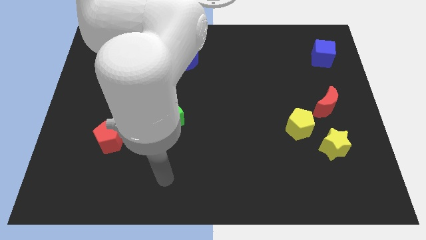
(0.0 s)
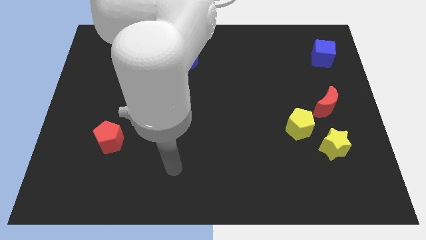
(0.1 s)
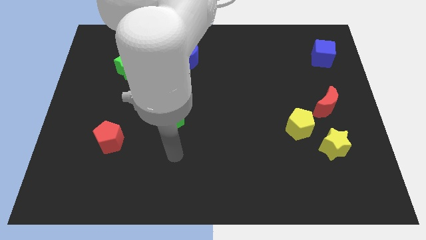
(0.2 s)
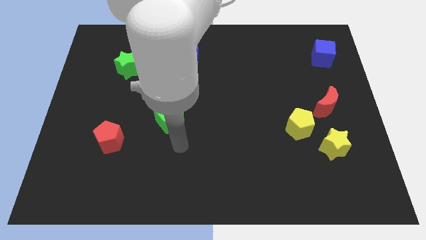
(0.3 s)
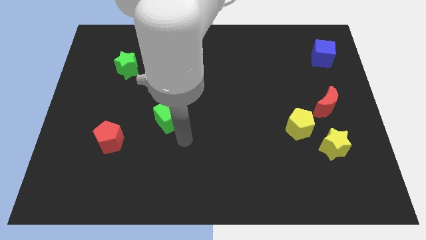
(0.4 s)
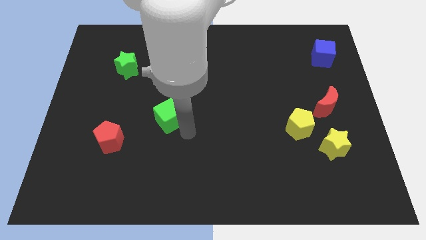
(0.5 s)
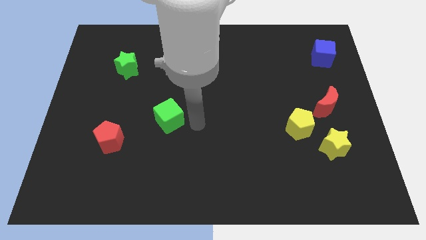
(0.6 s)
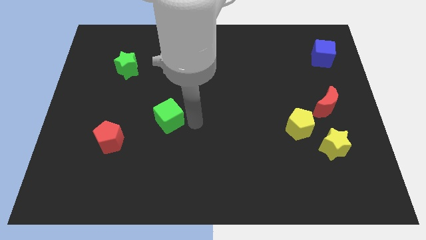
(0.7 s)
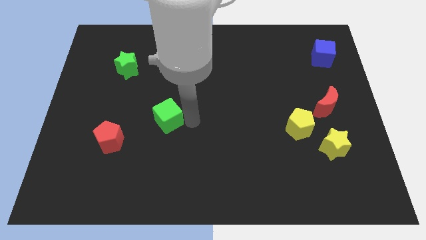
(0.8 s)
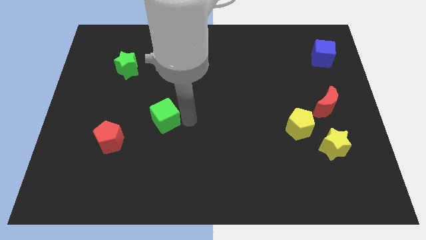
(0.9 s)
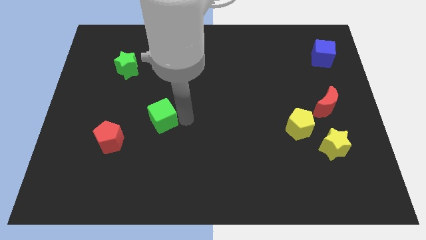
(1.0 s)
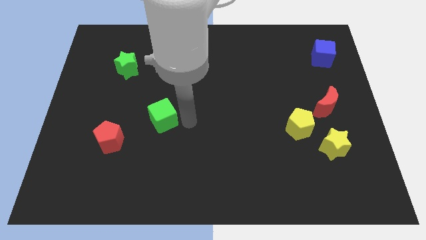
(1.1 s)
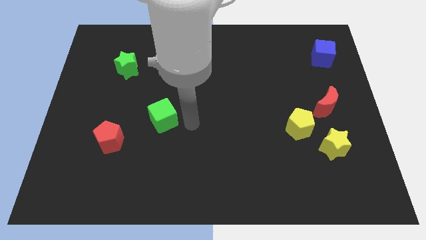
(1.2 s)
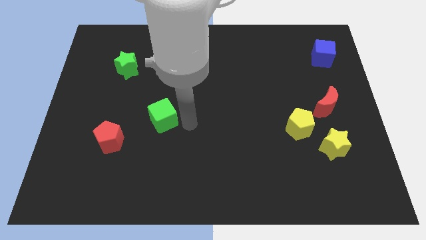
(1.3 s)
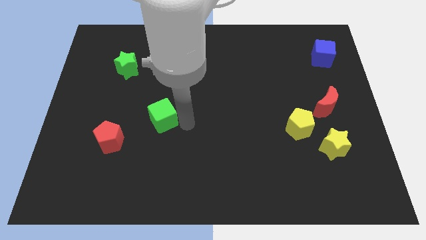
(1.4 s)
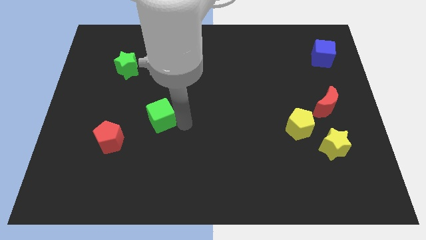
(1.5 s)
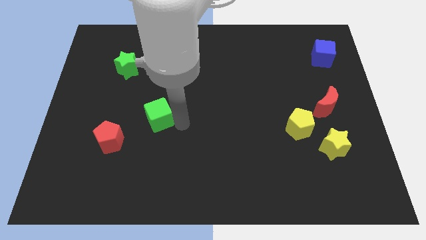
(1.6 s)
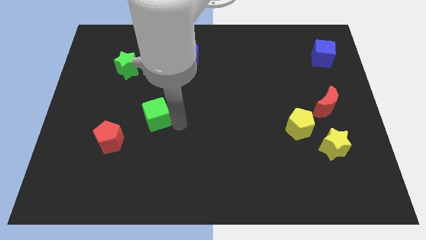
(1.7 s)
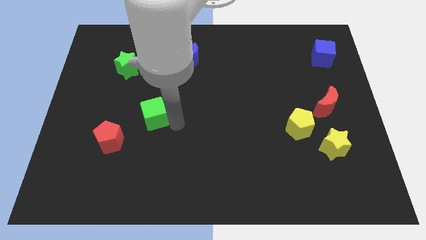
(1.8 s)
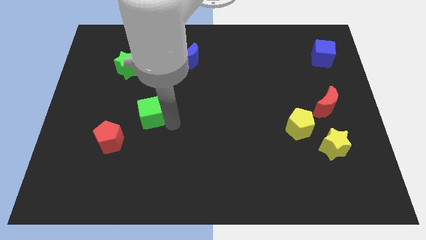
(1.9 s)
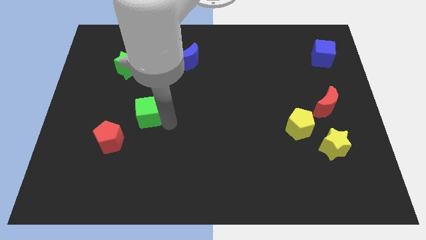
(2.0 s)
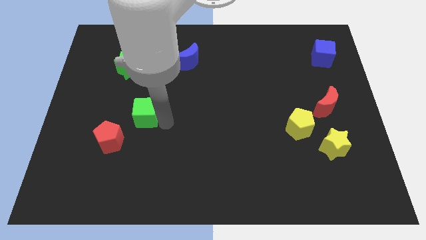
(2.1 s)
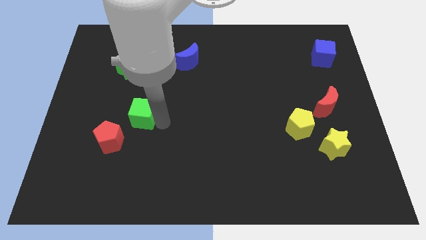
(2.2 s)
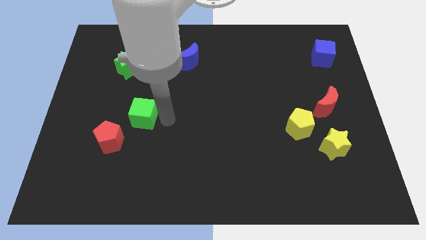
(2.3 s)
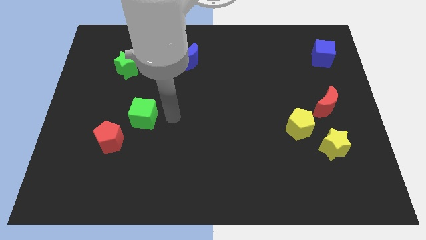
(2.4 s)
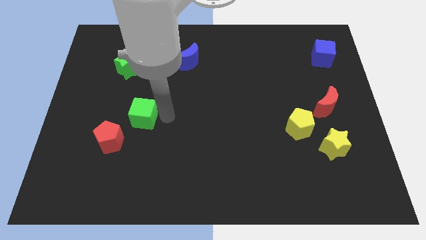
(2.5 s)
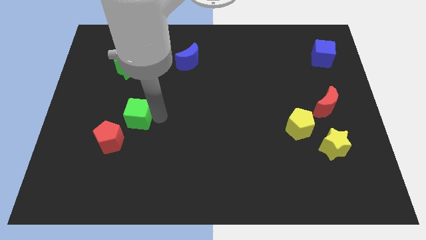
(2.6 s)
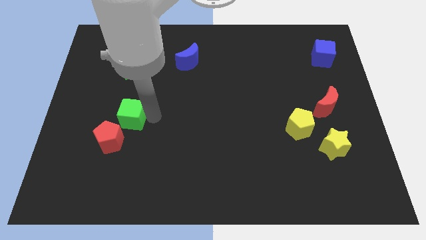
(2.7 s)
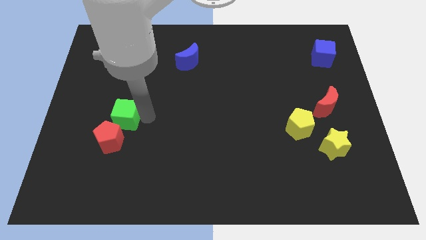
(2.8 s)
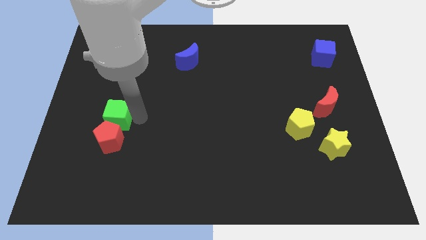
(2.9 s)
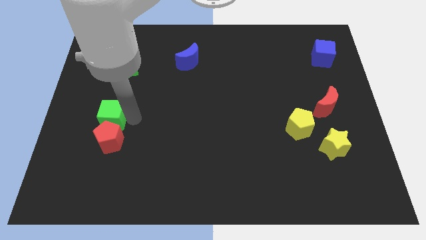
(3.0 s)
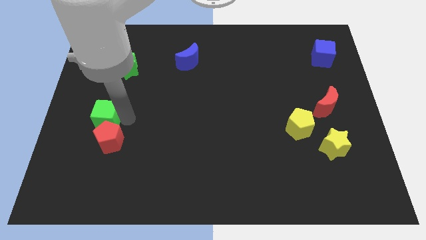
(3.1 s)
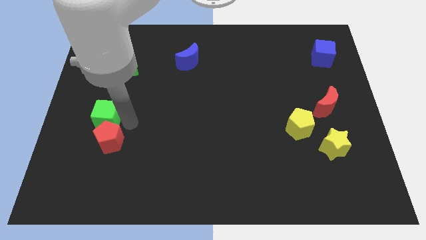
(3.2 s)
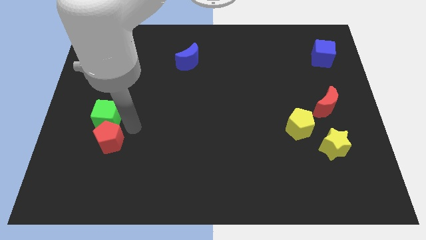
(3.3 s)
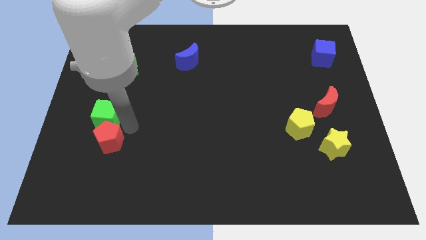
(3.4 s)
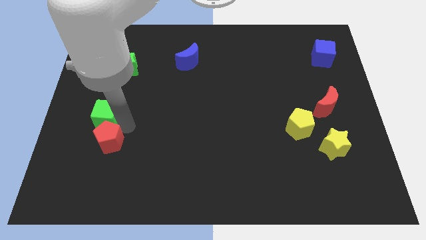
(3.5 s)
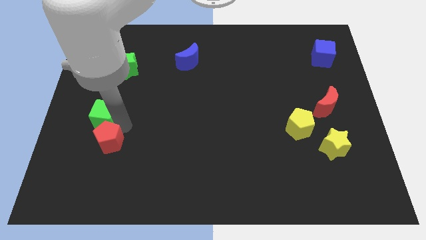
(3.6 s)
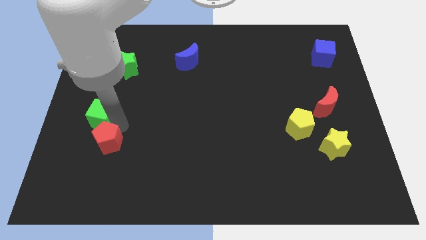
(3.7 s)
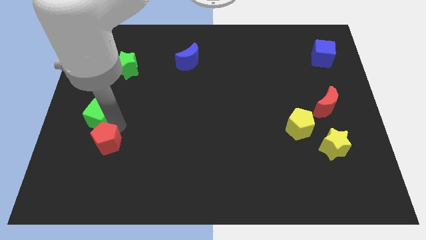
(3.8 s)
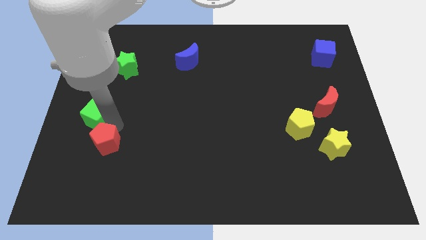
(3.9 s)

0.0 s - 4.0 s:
slide the green cube to the left side of the board

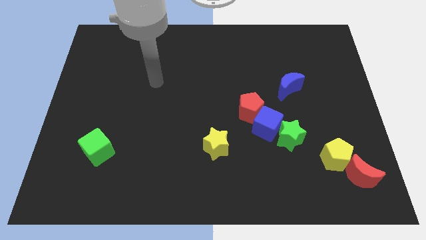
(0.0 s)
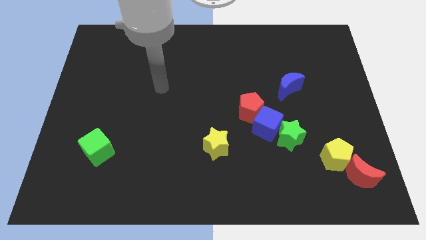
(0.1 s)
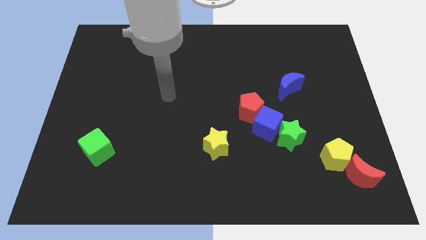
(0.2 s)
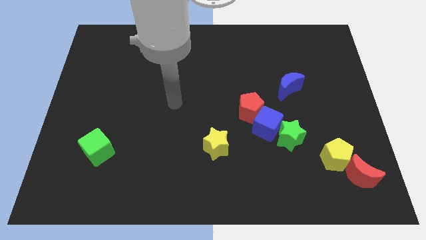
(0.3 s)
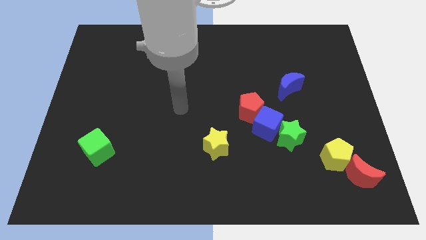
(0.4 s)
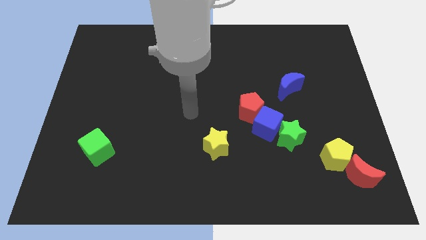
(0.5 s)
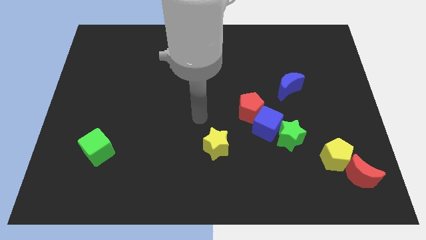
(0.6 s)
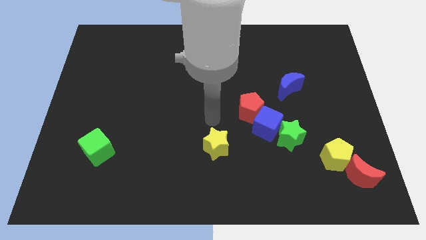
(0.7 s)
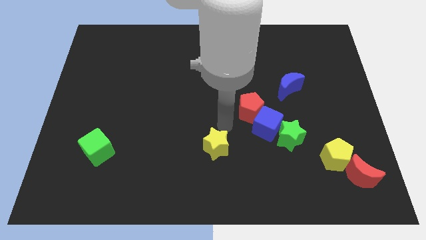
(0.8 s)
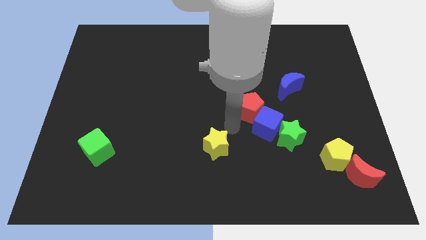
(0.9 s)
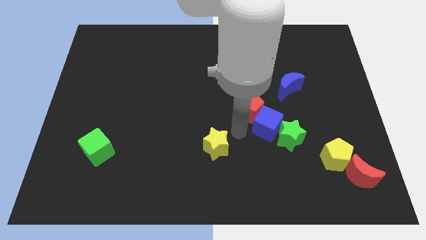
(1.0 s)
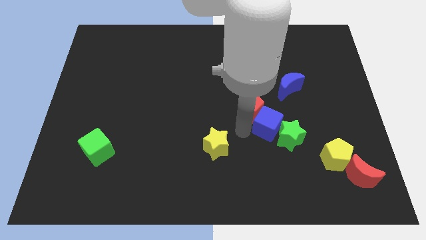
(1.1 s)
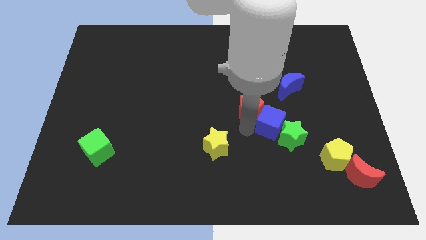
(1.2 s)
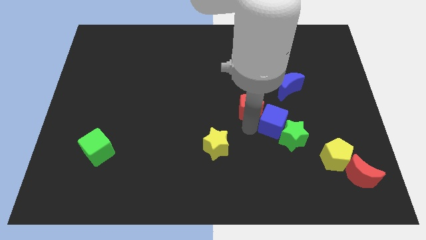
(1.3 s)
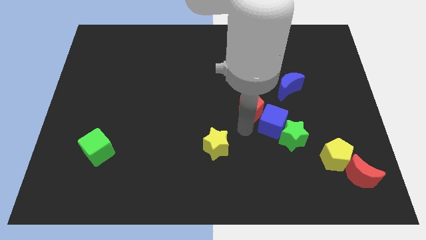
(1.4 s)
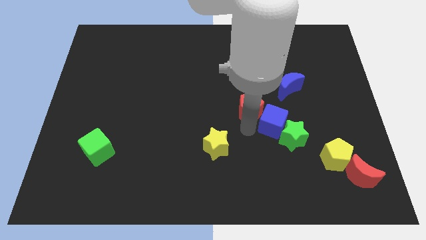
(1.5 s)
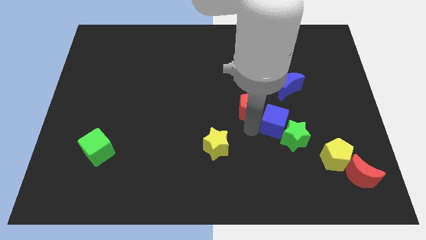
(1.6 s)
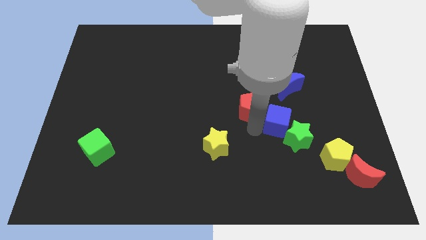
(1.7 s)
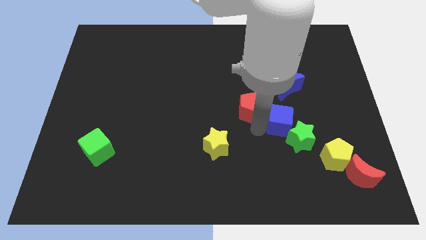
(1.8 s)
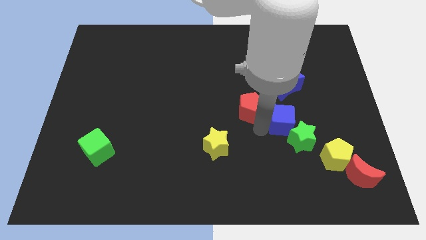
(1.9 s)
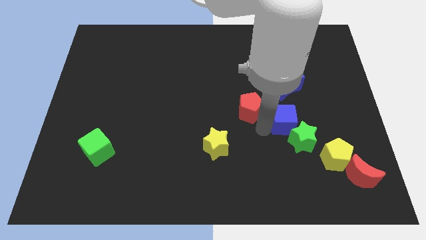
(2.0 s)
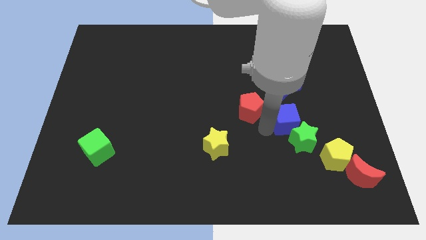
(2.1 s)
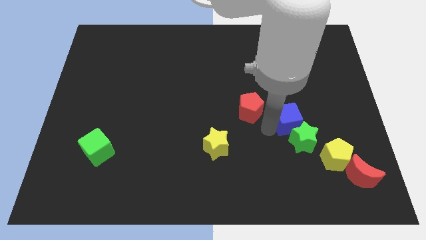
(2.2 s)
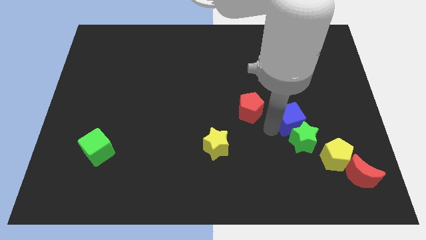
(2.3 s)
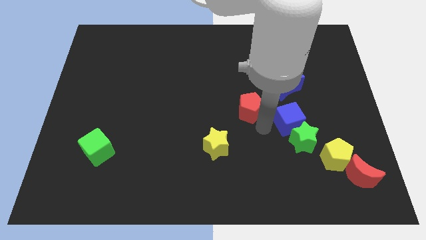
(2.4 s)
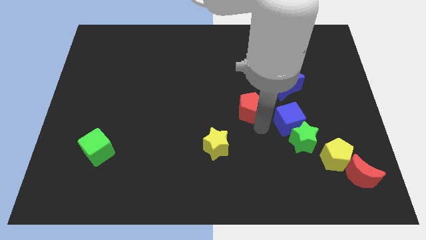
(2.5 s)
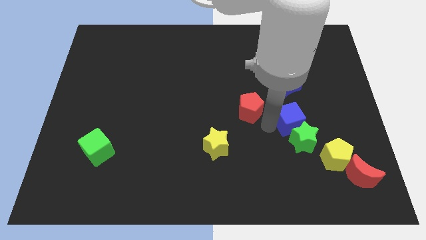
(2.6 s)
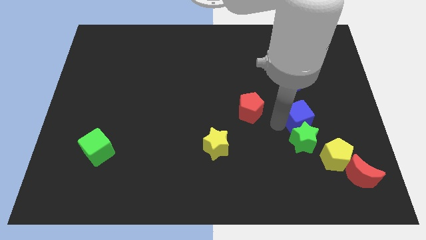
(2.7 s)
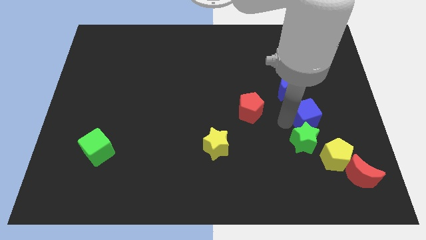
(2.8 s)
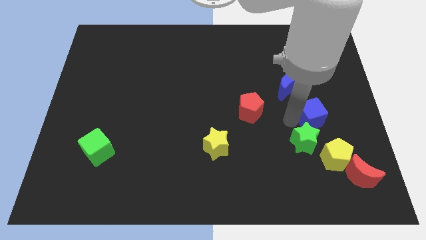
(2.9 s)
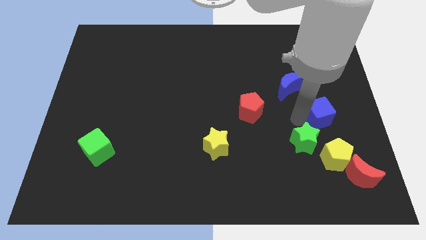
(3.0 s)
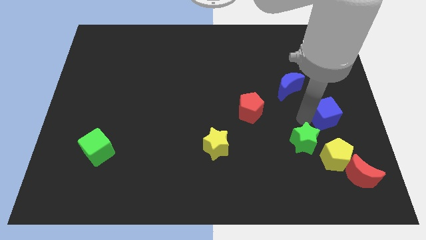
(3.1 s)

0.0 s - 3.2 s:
put the blue cube to the right side
